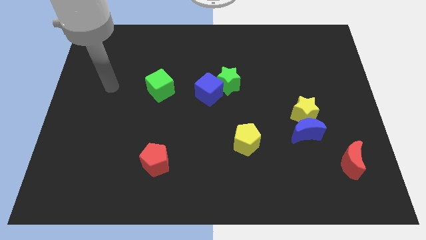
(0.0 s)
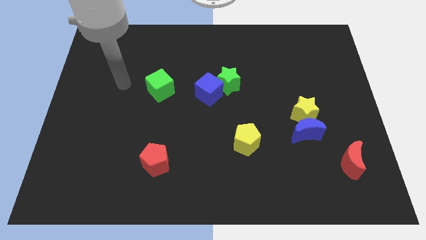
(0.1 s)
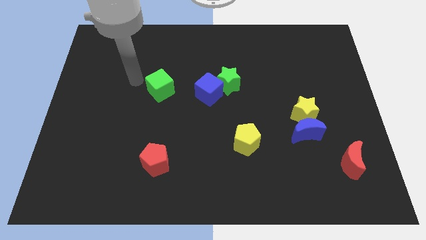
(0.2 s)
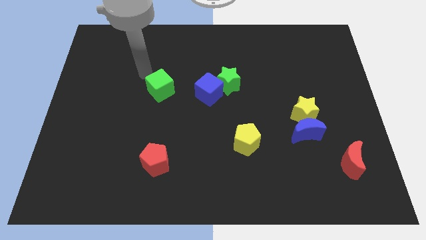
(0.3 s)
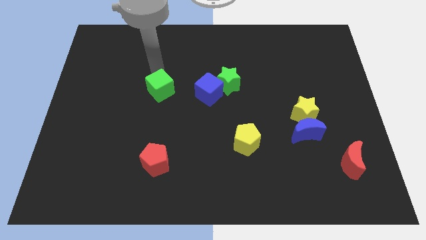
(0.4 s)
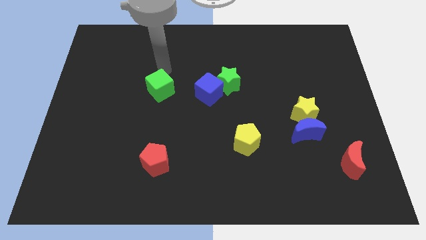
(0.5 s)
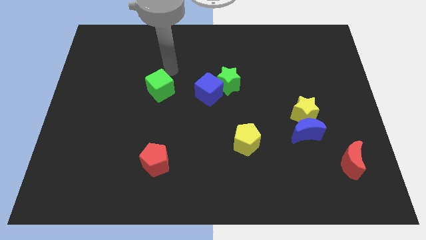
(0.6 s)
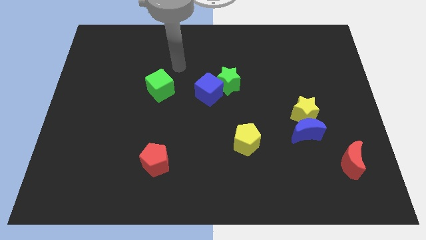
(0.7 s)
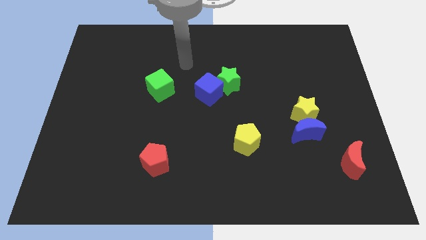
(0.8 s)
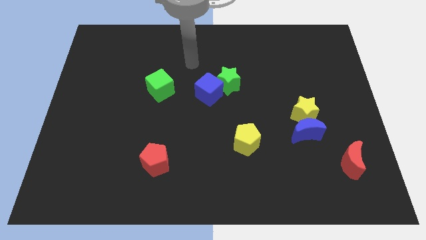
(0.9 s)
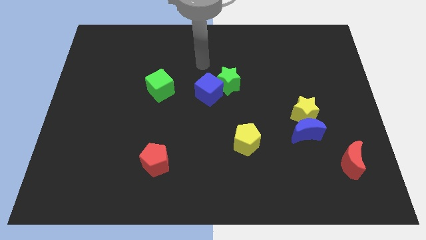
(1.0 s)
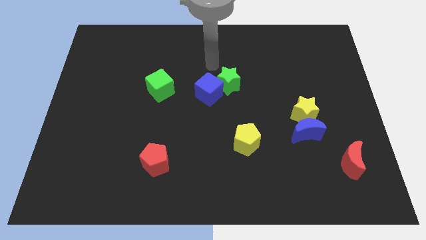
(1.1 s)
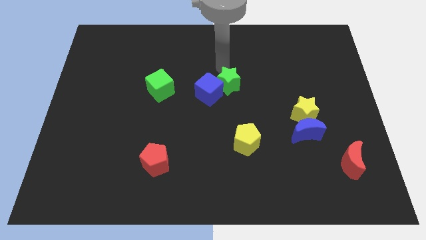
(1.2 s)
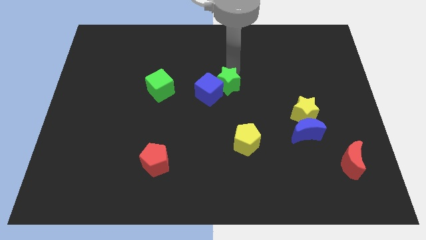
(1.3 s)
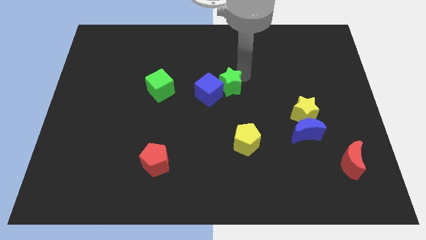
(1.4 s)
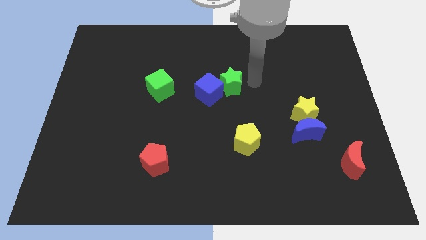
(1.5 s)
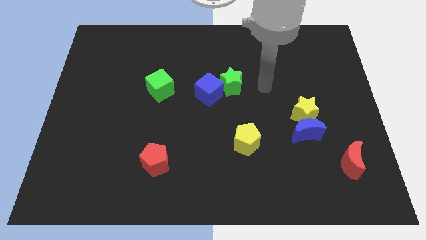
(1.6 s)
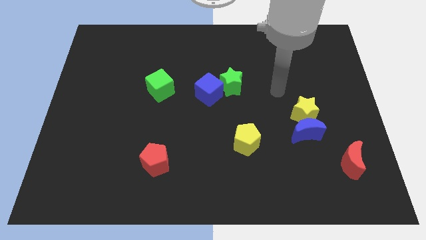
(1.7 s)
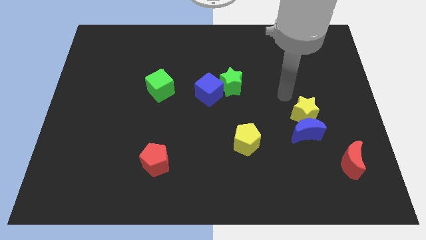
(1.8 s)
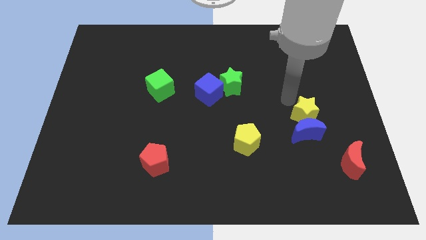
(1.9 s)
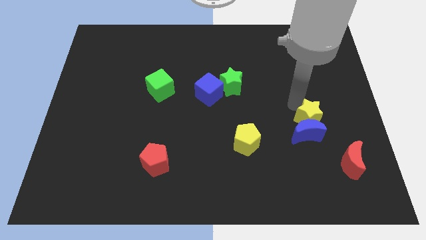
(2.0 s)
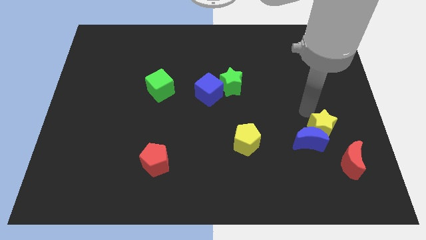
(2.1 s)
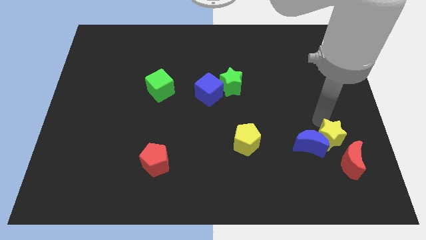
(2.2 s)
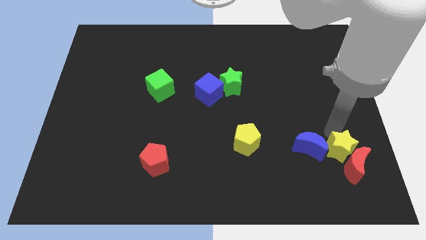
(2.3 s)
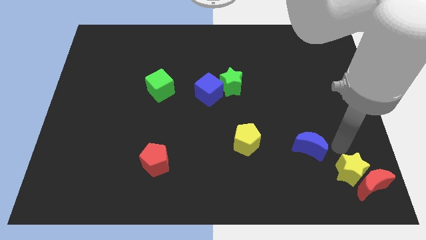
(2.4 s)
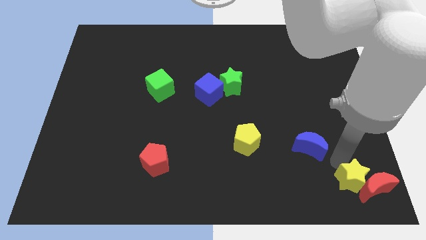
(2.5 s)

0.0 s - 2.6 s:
move the blue moon away from the yellow star

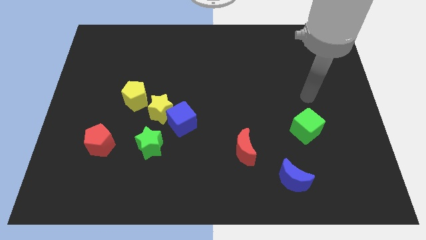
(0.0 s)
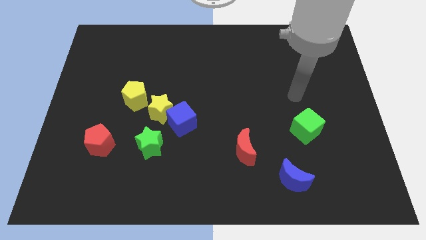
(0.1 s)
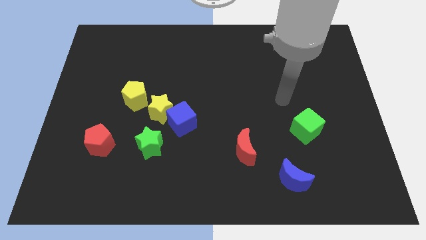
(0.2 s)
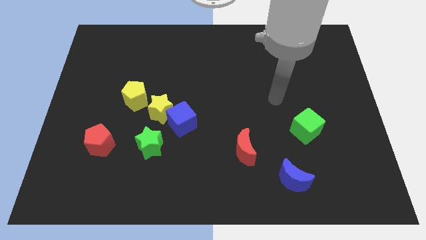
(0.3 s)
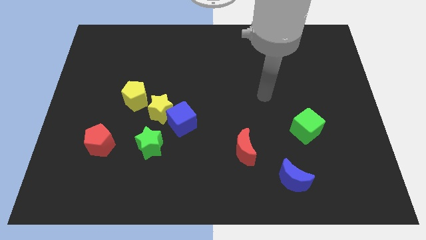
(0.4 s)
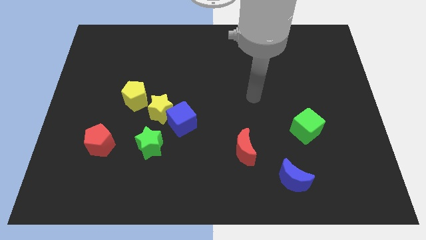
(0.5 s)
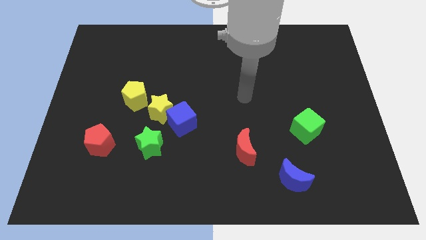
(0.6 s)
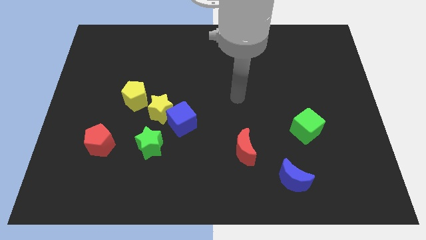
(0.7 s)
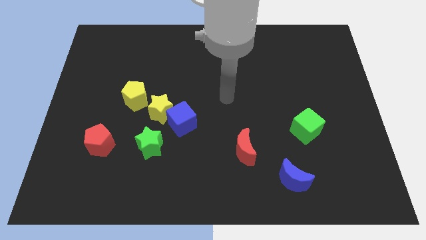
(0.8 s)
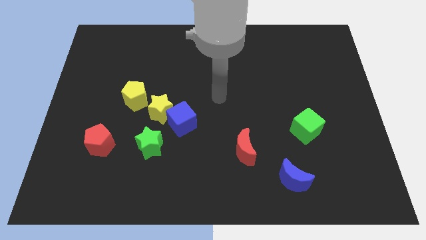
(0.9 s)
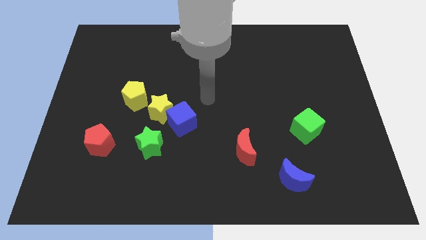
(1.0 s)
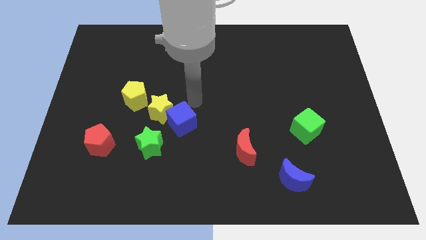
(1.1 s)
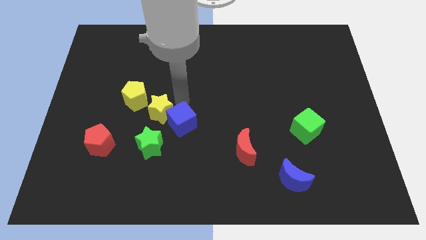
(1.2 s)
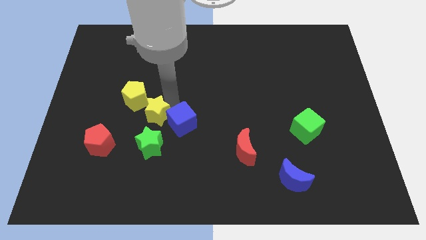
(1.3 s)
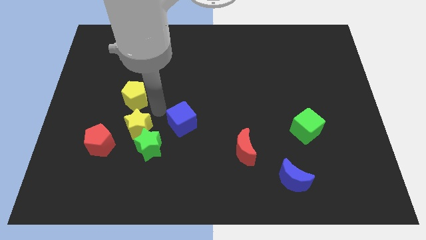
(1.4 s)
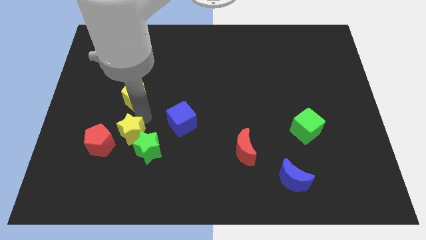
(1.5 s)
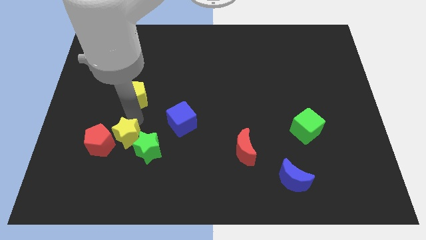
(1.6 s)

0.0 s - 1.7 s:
pull the yellow pentagon apart from the yellow star

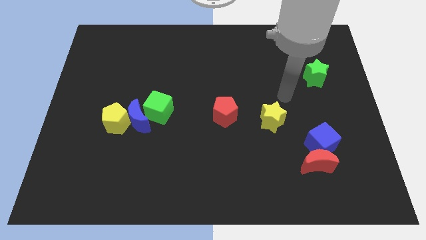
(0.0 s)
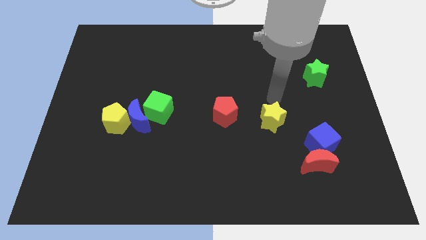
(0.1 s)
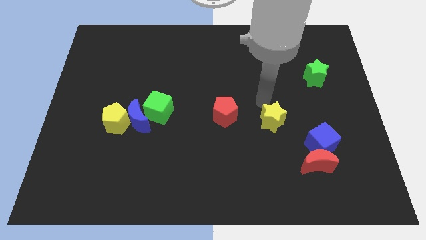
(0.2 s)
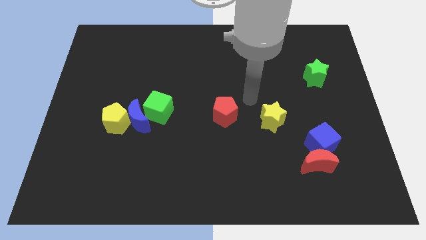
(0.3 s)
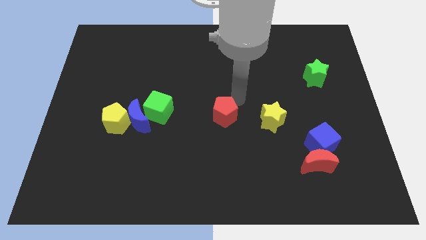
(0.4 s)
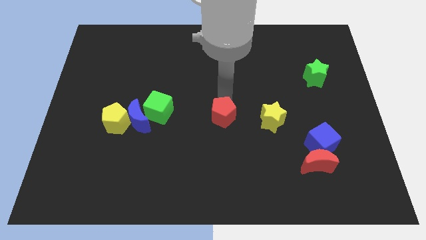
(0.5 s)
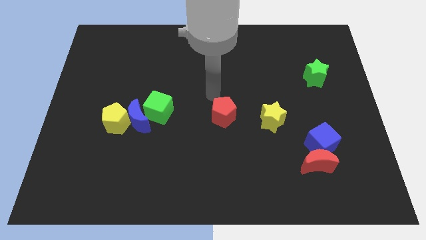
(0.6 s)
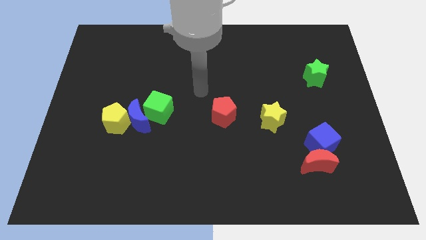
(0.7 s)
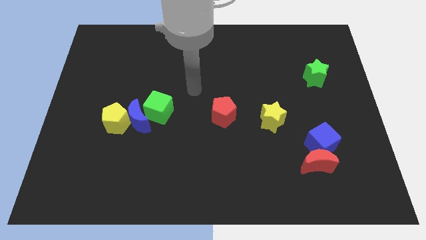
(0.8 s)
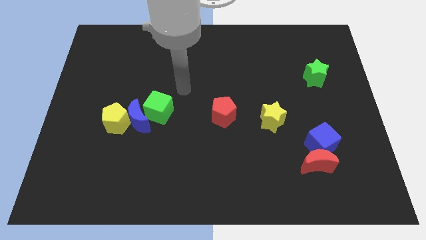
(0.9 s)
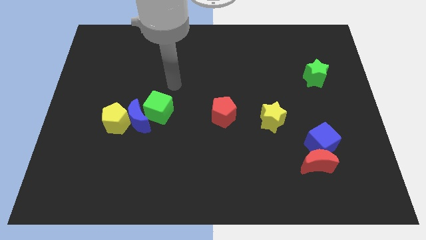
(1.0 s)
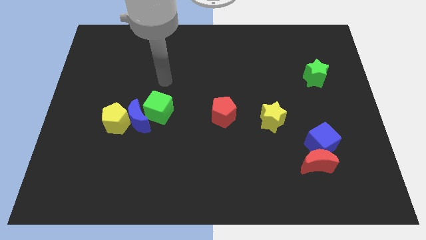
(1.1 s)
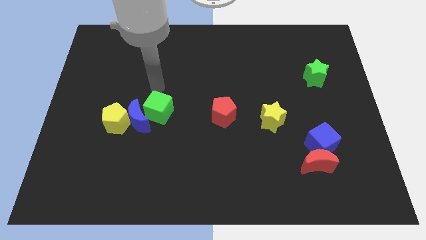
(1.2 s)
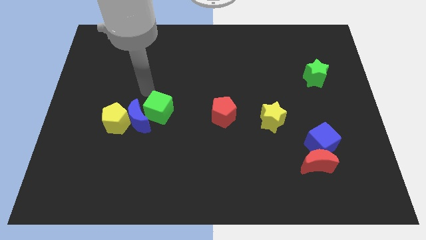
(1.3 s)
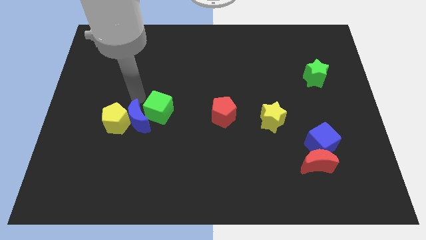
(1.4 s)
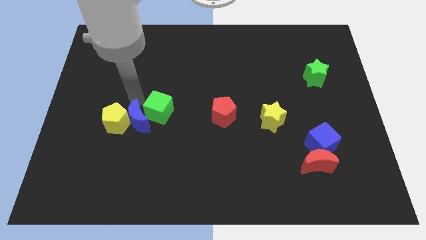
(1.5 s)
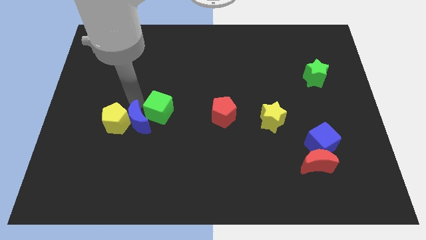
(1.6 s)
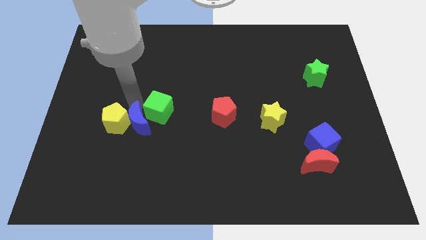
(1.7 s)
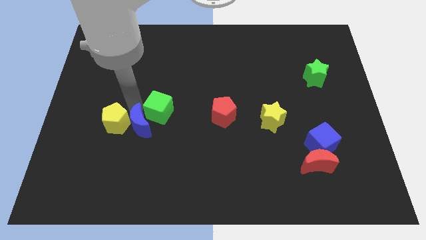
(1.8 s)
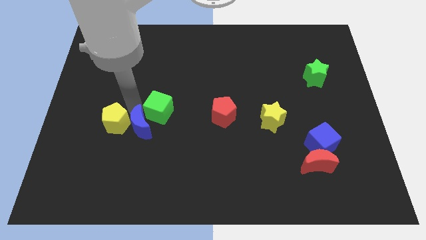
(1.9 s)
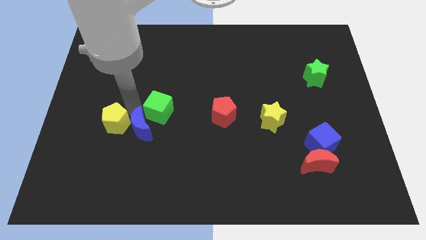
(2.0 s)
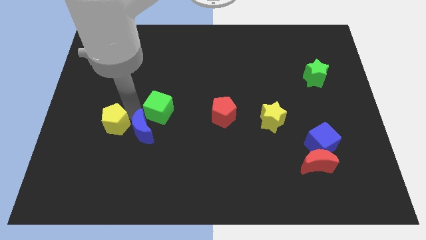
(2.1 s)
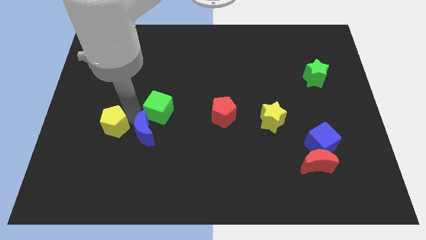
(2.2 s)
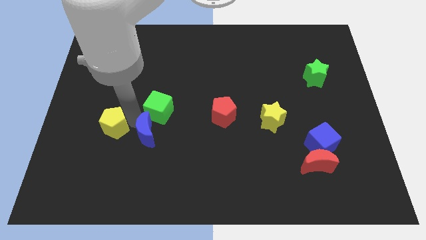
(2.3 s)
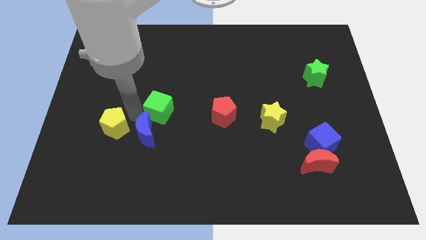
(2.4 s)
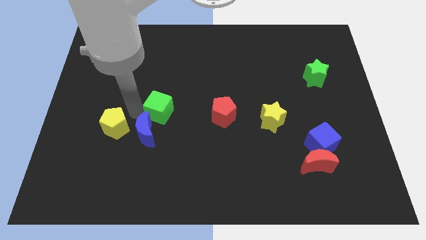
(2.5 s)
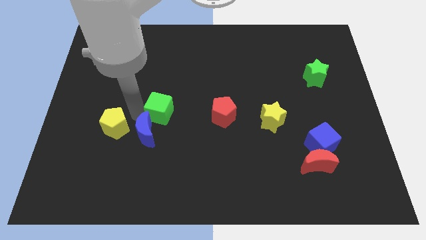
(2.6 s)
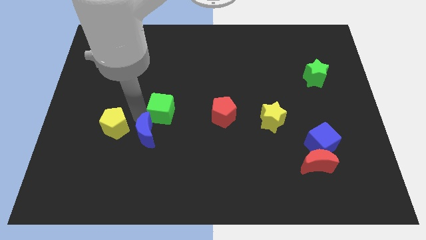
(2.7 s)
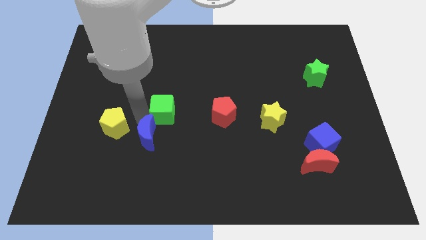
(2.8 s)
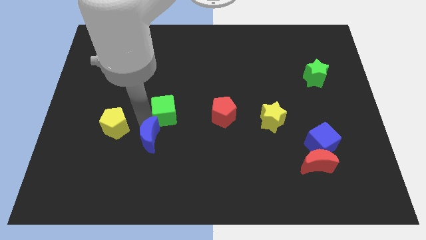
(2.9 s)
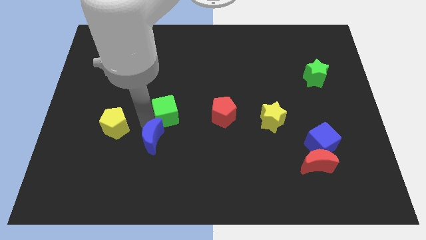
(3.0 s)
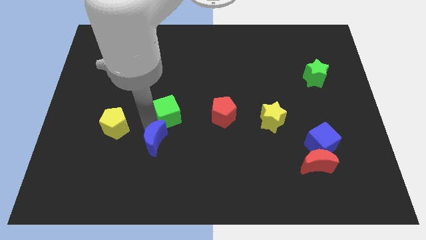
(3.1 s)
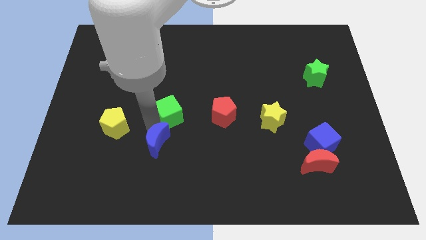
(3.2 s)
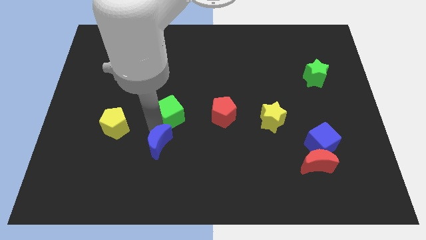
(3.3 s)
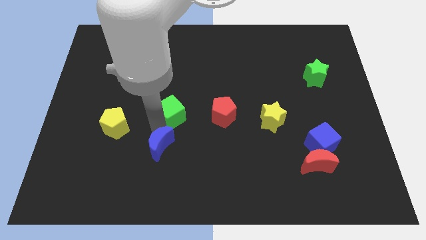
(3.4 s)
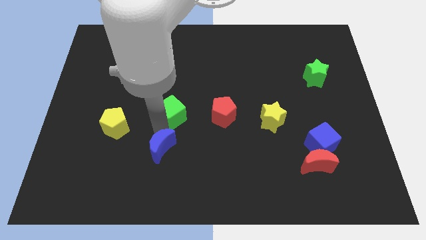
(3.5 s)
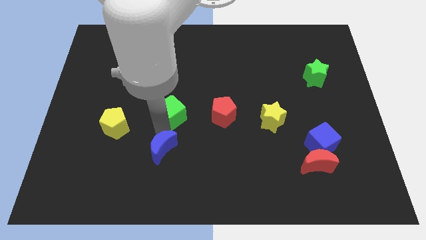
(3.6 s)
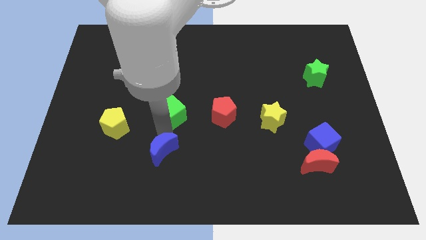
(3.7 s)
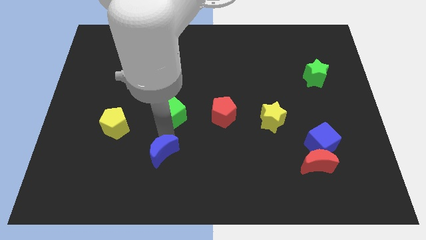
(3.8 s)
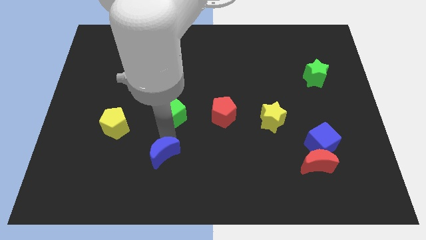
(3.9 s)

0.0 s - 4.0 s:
separate the blue moon from the yellow pentagon and green cube

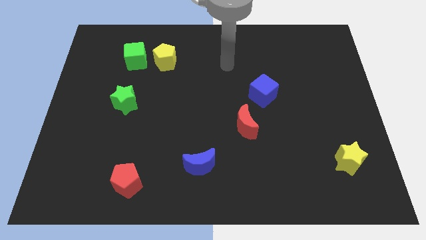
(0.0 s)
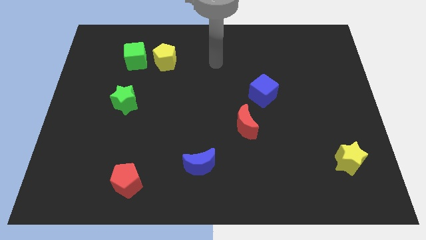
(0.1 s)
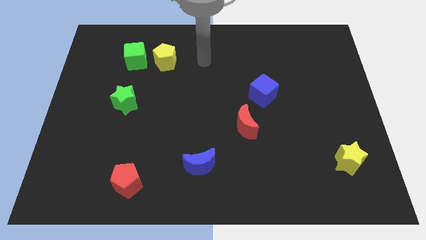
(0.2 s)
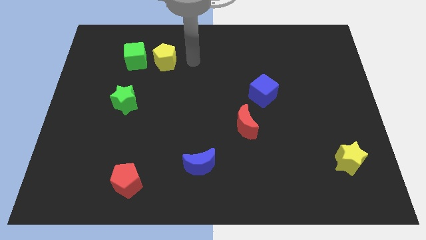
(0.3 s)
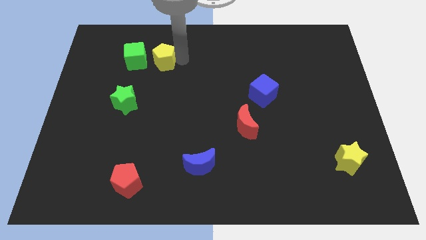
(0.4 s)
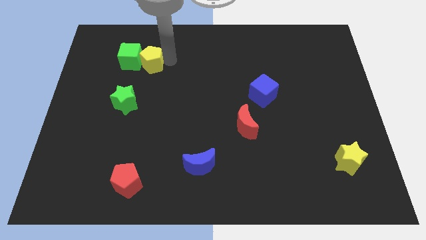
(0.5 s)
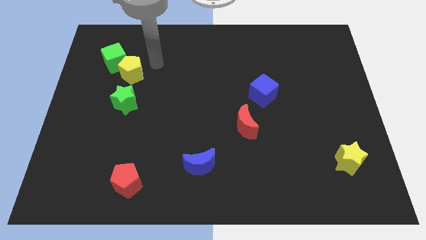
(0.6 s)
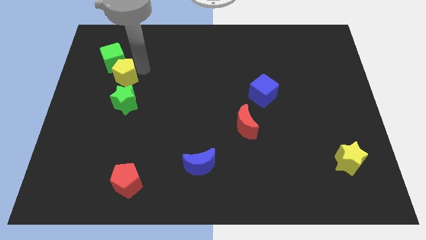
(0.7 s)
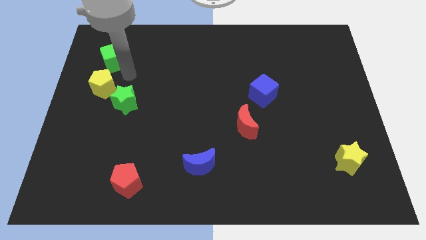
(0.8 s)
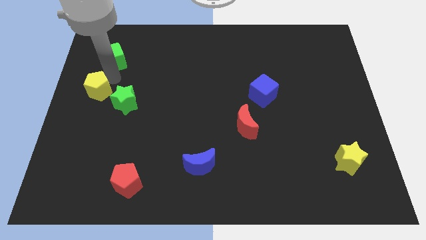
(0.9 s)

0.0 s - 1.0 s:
separate the green cube from the yellow pentagon
